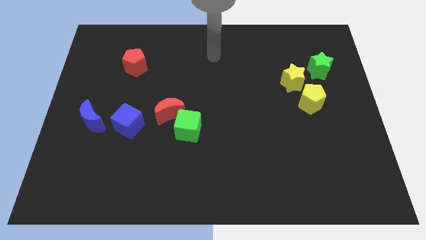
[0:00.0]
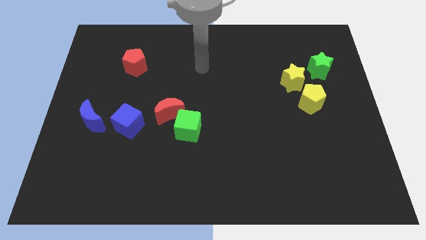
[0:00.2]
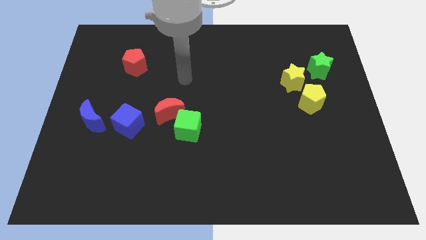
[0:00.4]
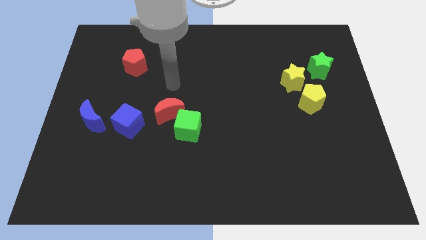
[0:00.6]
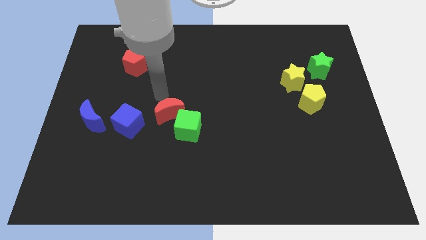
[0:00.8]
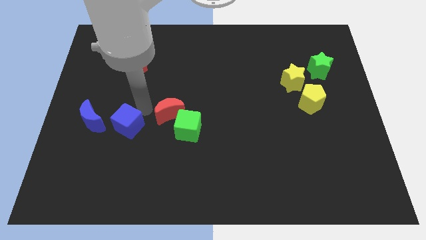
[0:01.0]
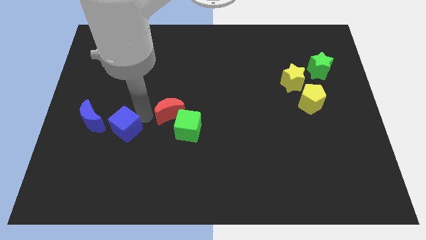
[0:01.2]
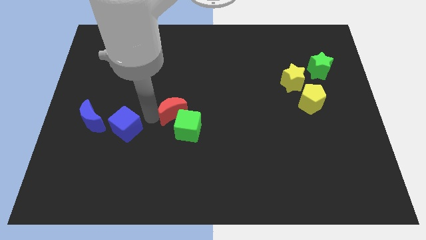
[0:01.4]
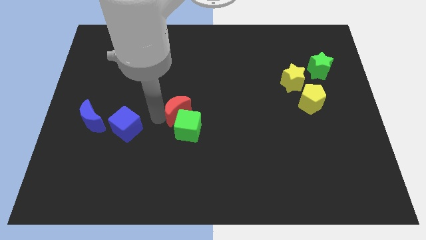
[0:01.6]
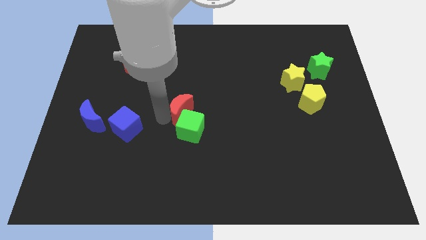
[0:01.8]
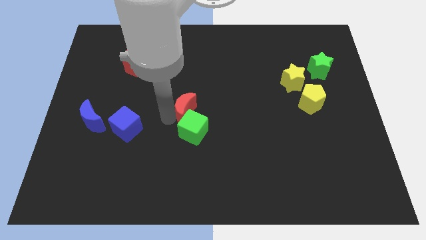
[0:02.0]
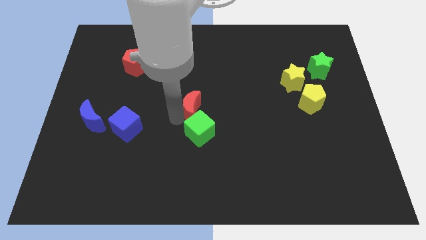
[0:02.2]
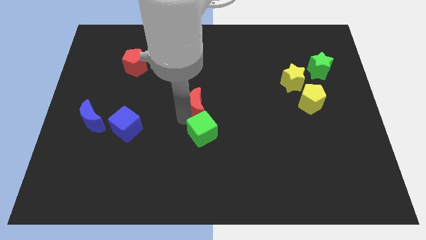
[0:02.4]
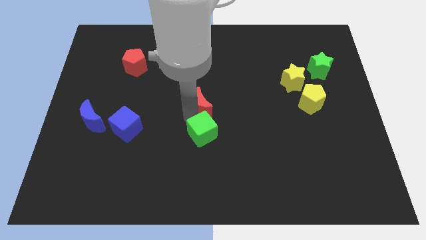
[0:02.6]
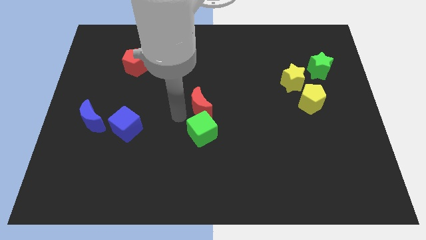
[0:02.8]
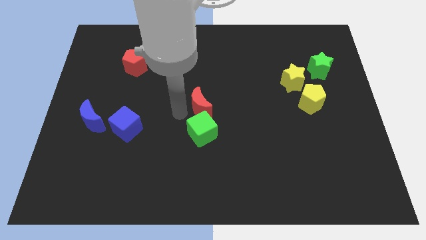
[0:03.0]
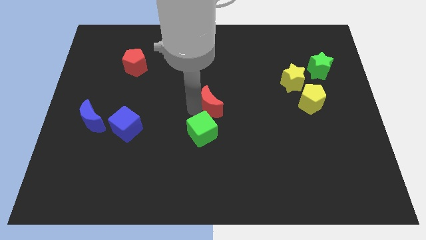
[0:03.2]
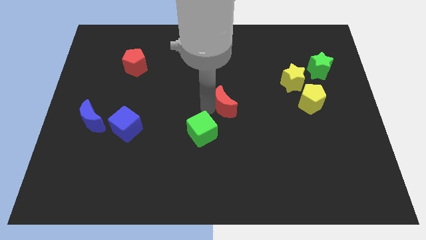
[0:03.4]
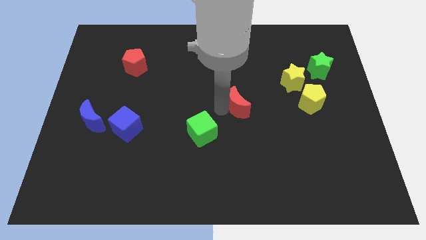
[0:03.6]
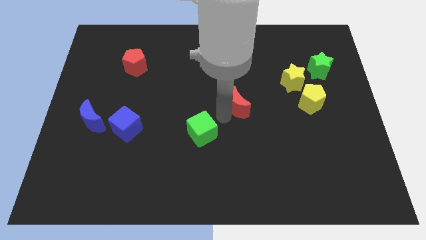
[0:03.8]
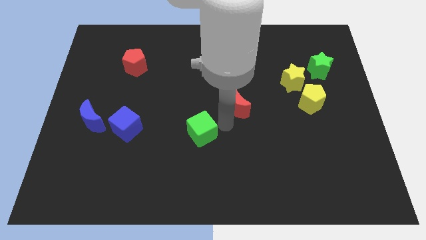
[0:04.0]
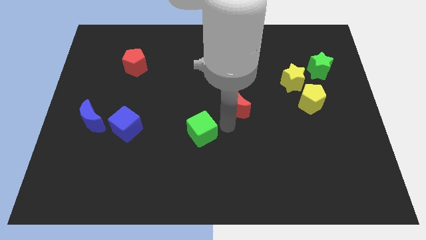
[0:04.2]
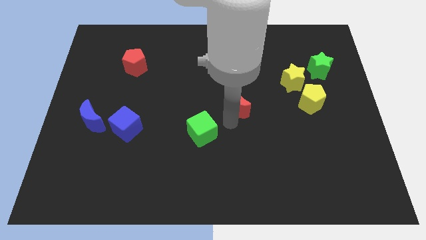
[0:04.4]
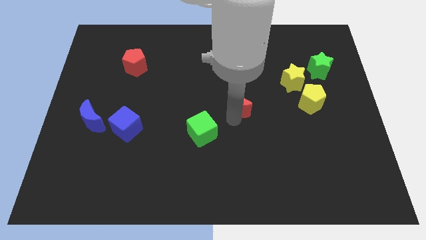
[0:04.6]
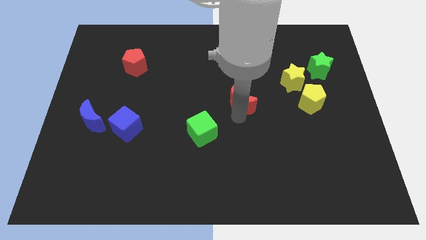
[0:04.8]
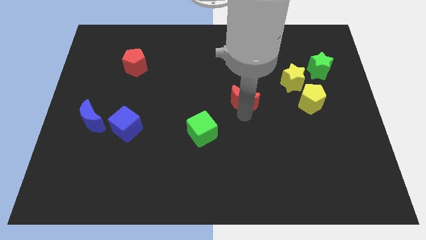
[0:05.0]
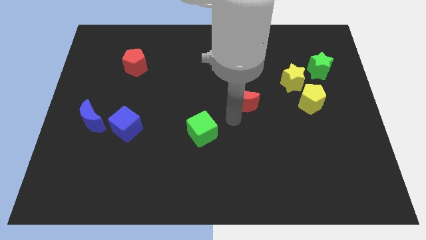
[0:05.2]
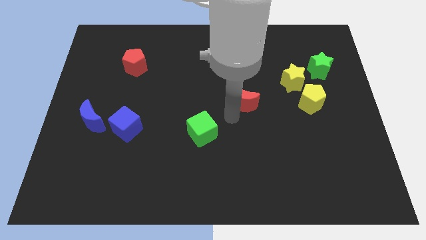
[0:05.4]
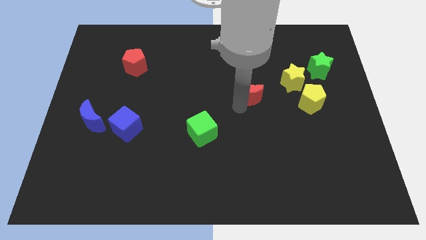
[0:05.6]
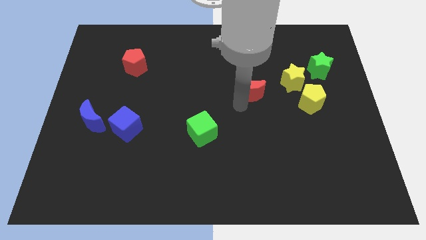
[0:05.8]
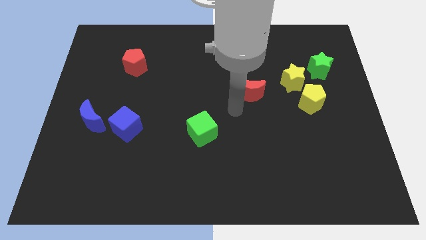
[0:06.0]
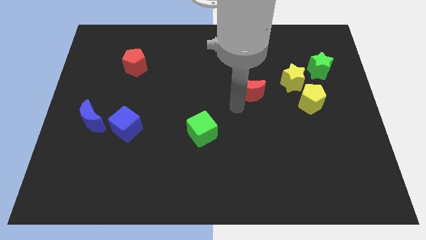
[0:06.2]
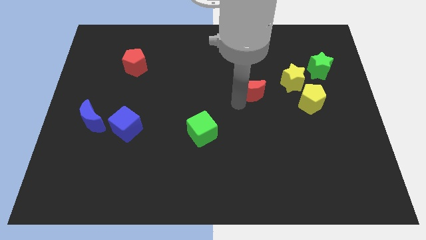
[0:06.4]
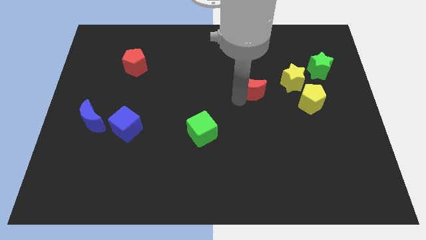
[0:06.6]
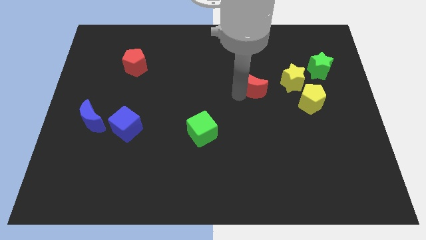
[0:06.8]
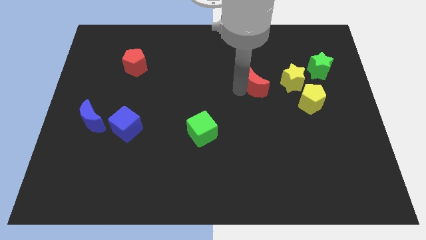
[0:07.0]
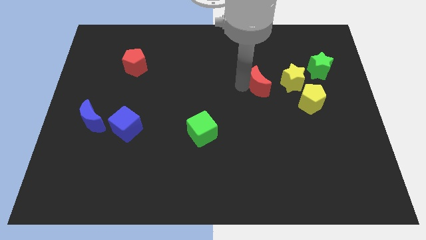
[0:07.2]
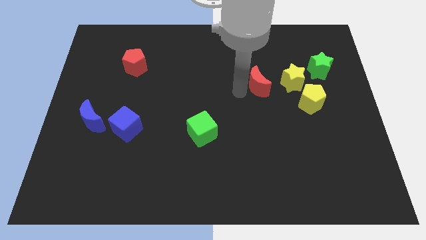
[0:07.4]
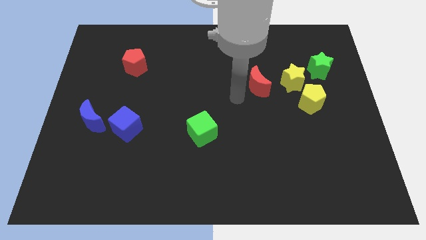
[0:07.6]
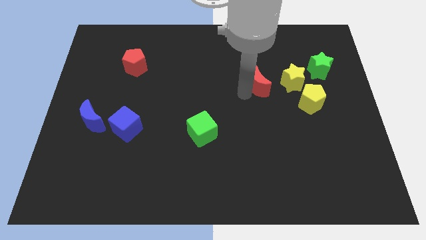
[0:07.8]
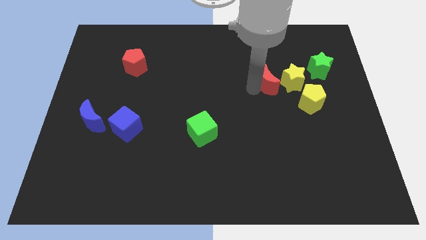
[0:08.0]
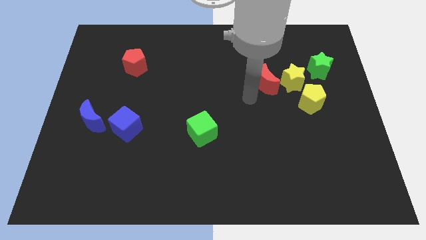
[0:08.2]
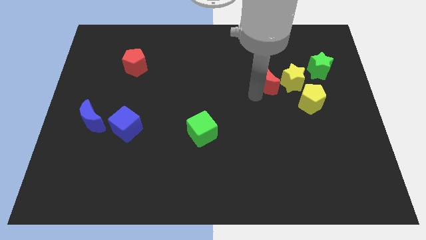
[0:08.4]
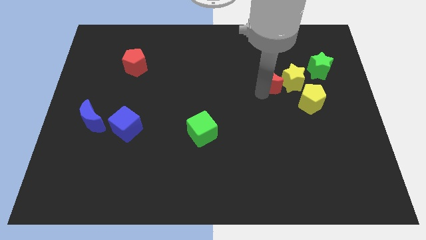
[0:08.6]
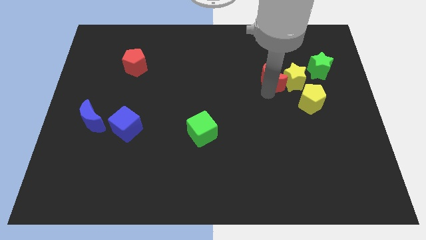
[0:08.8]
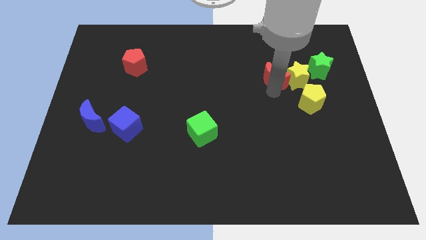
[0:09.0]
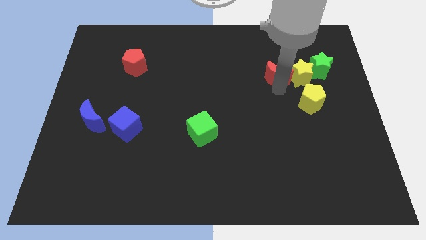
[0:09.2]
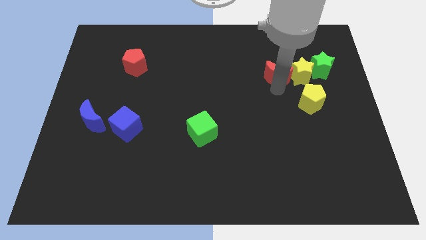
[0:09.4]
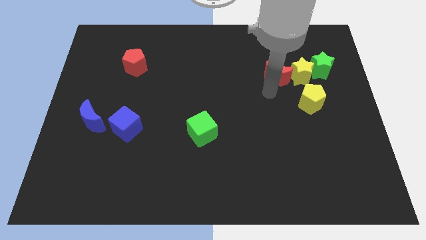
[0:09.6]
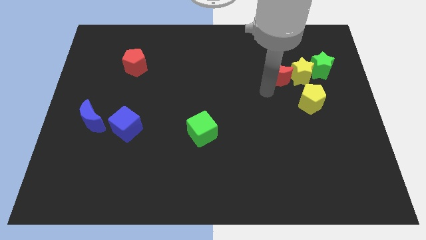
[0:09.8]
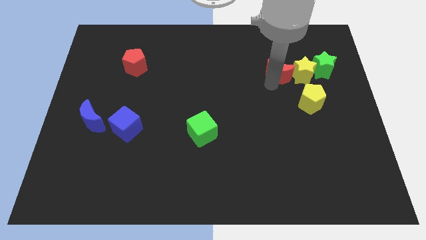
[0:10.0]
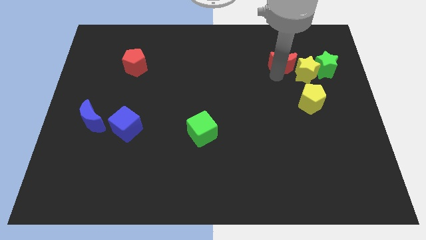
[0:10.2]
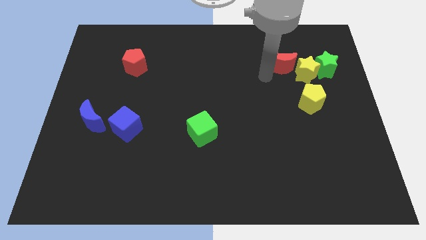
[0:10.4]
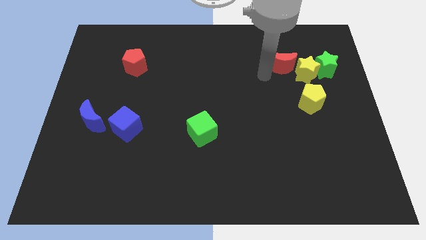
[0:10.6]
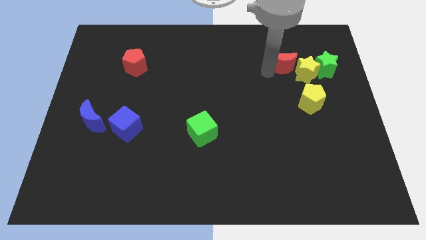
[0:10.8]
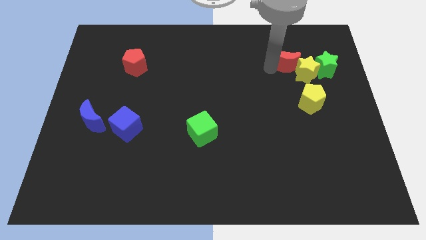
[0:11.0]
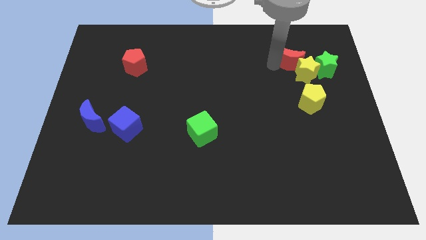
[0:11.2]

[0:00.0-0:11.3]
move the red moon to the top left of the green star

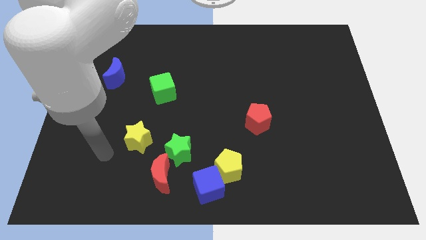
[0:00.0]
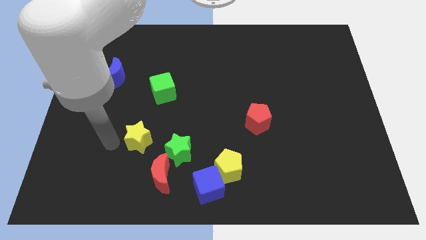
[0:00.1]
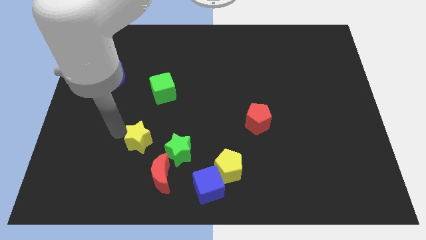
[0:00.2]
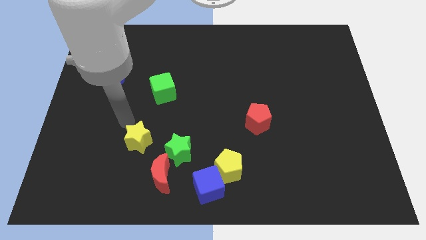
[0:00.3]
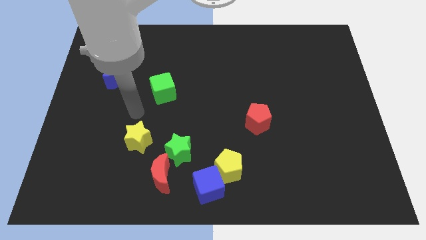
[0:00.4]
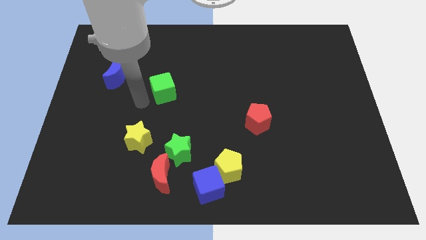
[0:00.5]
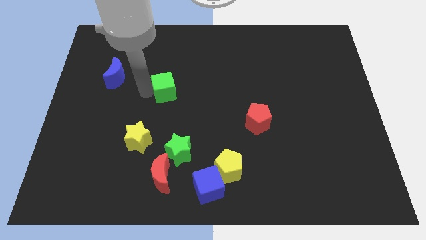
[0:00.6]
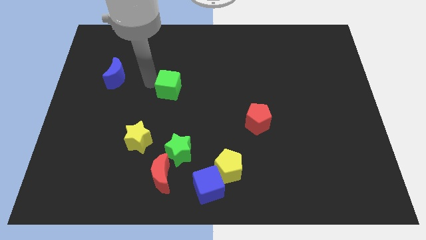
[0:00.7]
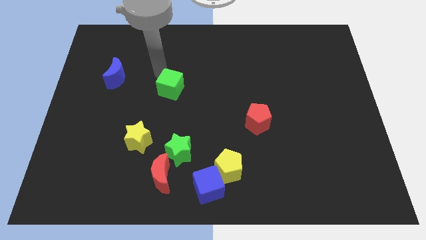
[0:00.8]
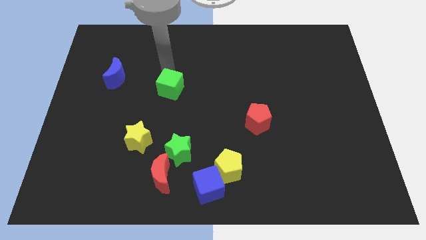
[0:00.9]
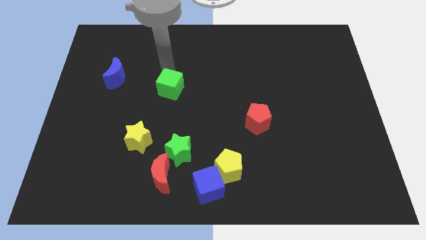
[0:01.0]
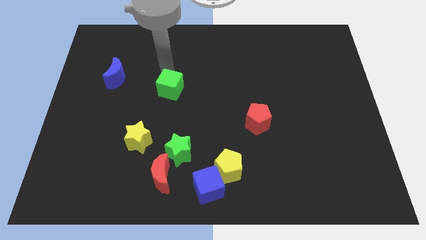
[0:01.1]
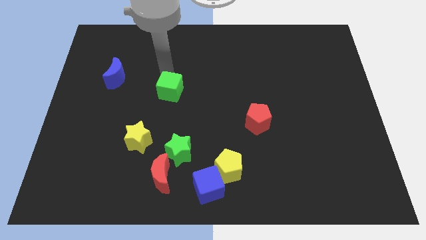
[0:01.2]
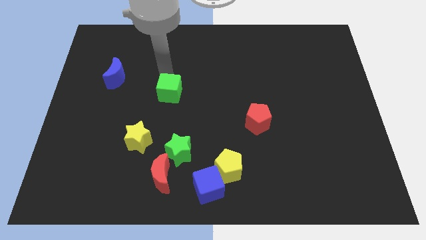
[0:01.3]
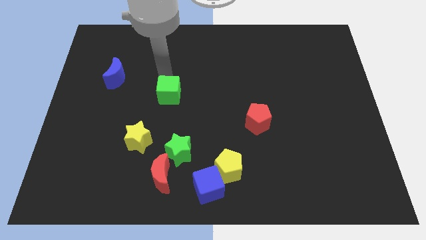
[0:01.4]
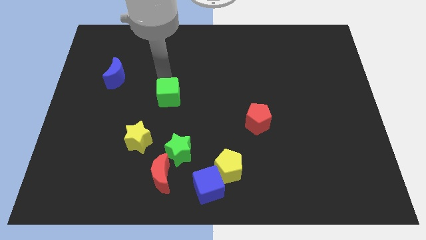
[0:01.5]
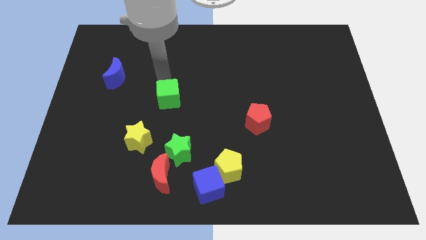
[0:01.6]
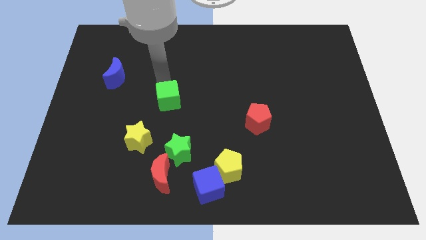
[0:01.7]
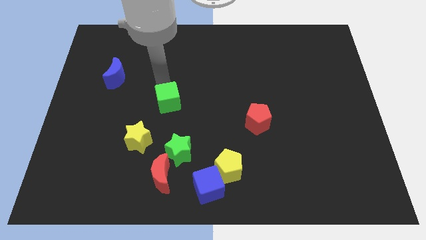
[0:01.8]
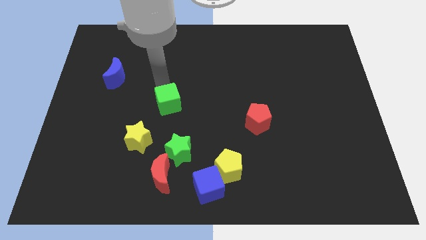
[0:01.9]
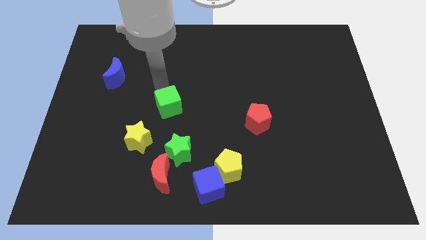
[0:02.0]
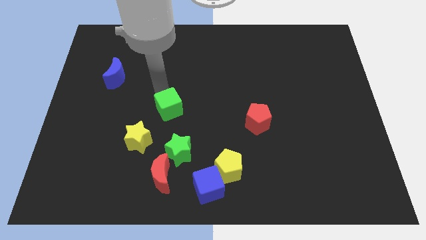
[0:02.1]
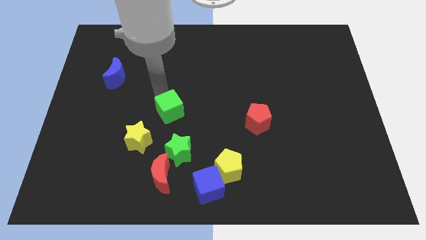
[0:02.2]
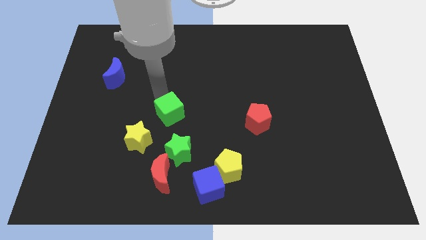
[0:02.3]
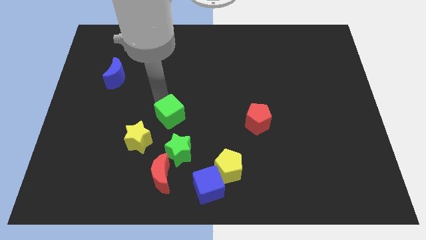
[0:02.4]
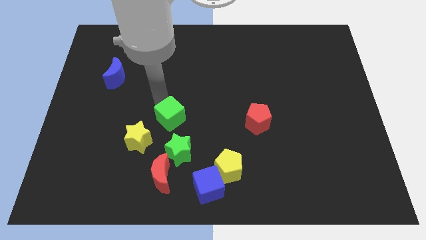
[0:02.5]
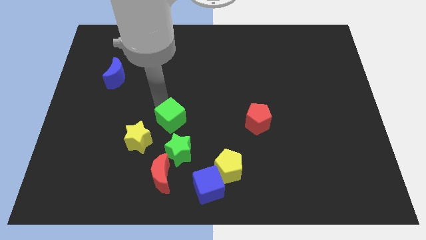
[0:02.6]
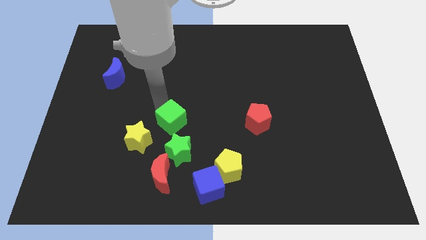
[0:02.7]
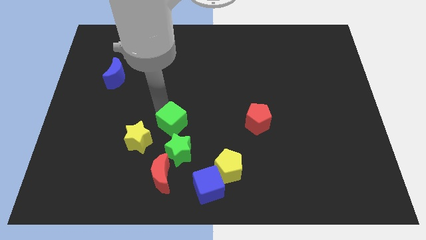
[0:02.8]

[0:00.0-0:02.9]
put the green cube to the right of the yellow star
